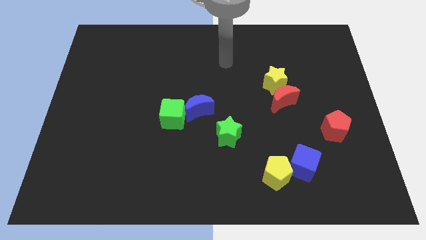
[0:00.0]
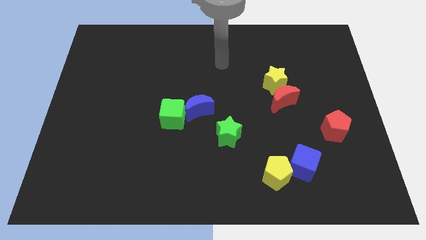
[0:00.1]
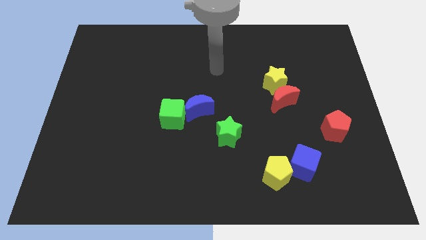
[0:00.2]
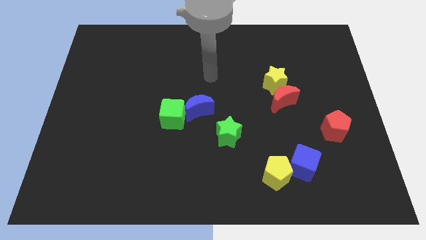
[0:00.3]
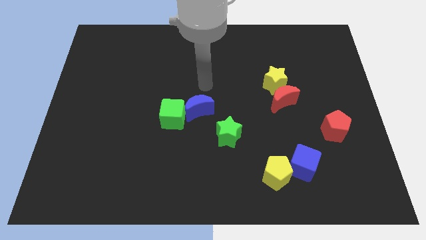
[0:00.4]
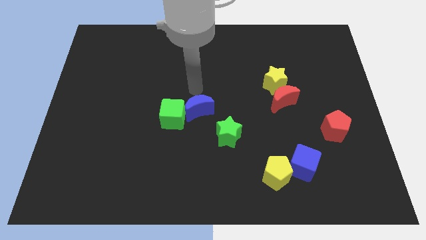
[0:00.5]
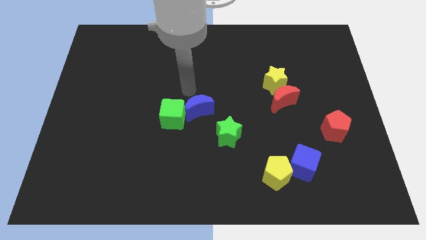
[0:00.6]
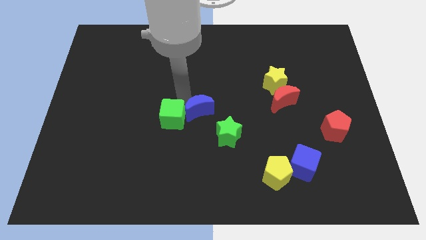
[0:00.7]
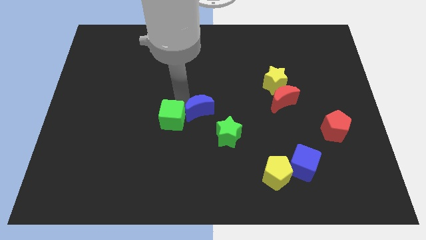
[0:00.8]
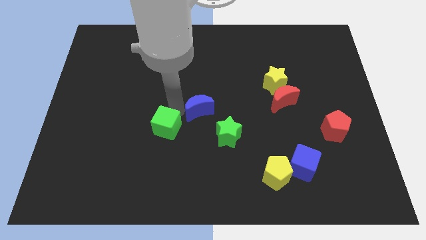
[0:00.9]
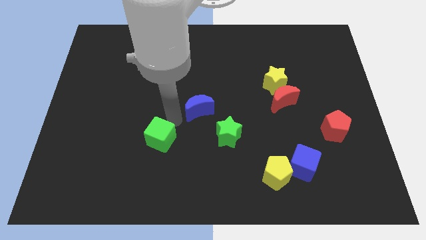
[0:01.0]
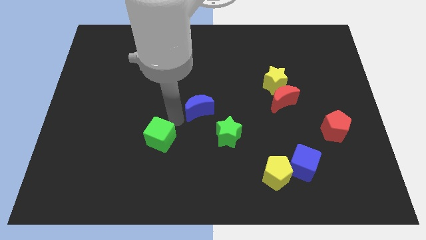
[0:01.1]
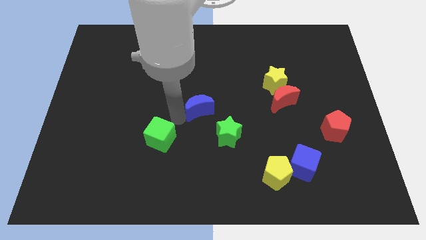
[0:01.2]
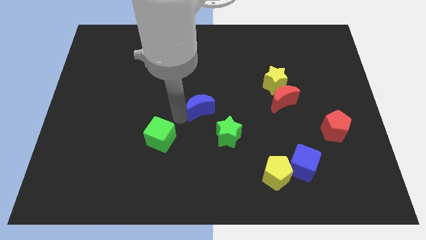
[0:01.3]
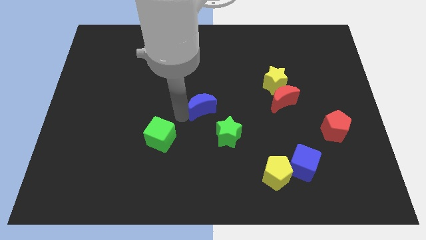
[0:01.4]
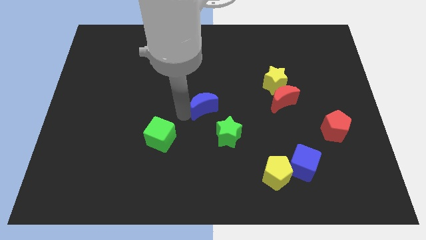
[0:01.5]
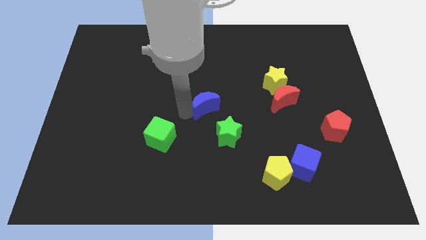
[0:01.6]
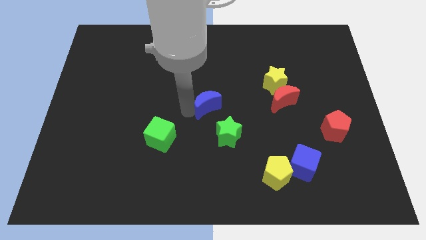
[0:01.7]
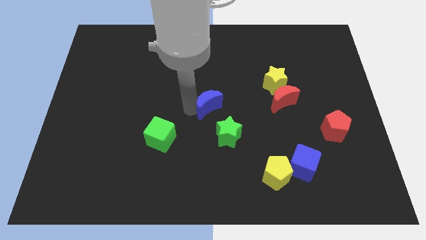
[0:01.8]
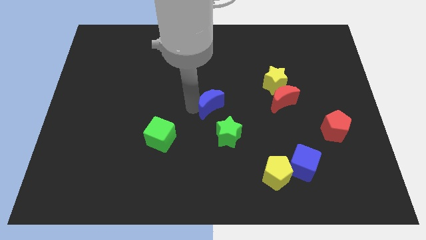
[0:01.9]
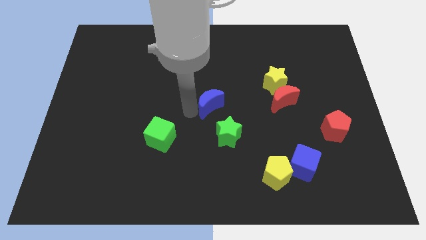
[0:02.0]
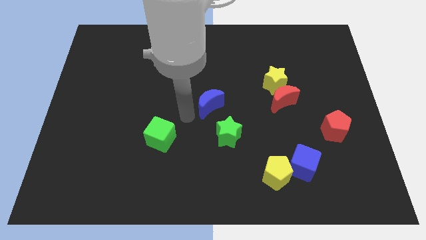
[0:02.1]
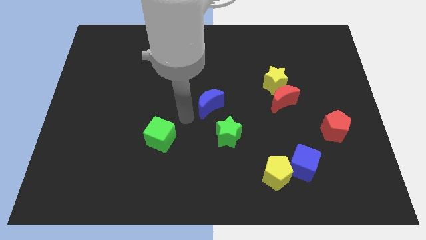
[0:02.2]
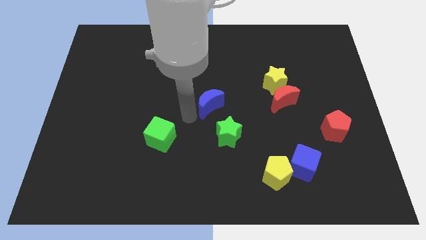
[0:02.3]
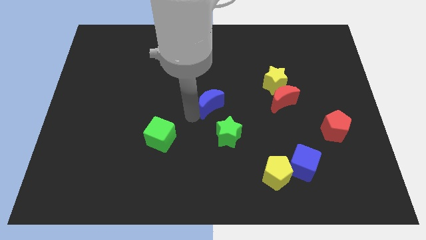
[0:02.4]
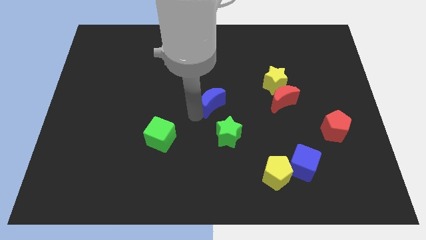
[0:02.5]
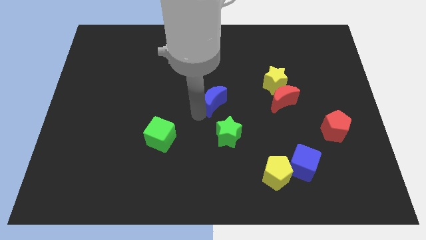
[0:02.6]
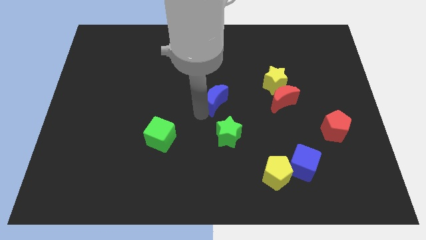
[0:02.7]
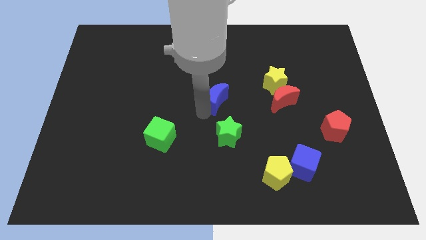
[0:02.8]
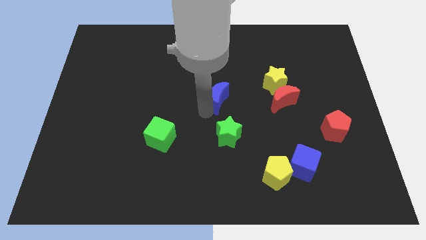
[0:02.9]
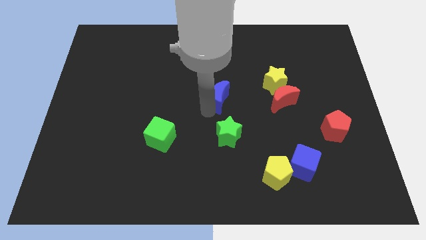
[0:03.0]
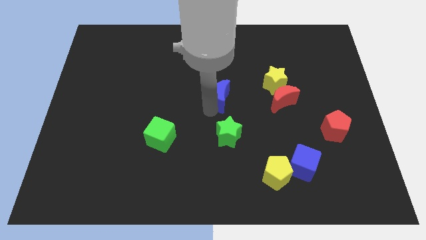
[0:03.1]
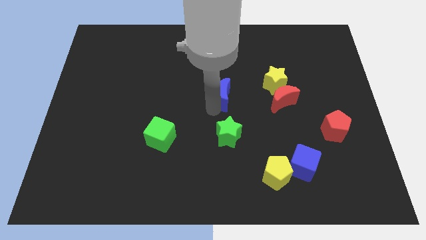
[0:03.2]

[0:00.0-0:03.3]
slightly move the blue moon upwards and to the right diagonally

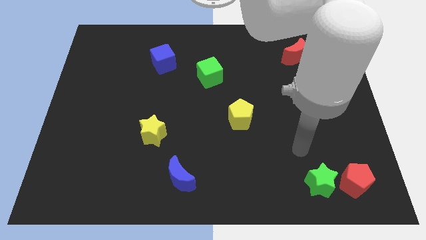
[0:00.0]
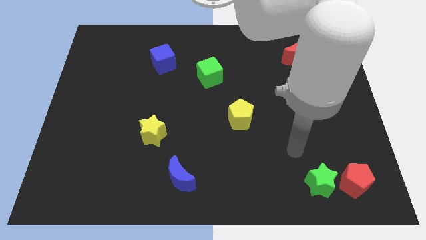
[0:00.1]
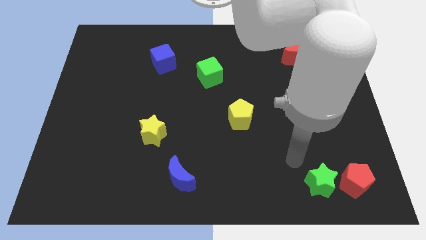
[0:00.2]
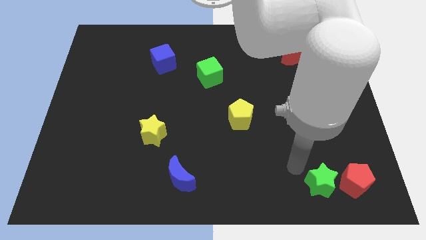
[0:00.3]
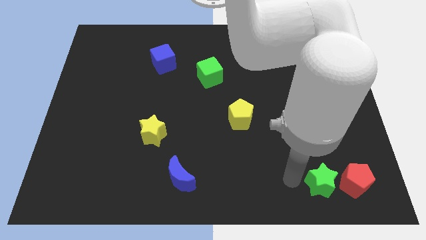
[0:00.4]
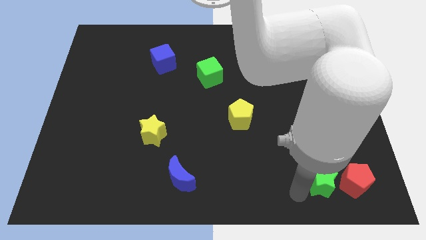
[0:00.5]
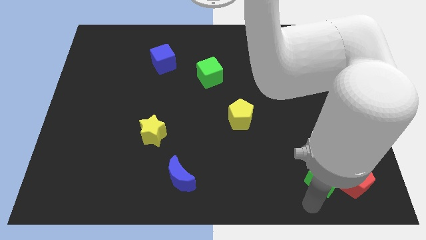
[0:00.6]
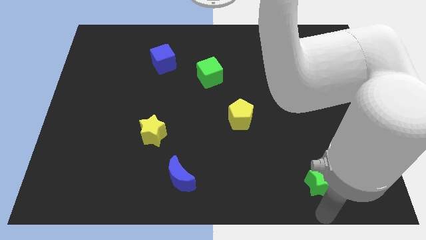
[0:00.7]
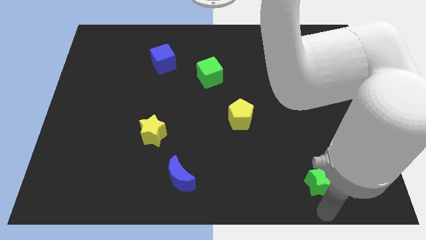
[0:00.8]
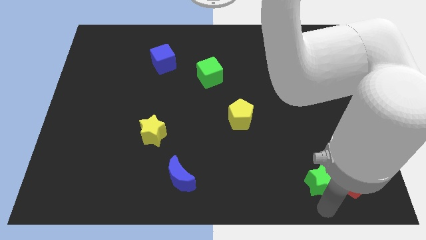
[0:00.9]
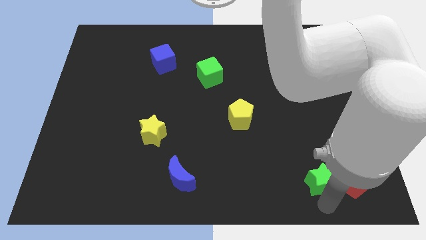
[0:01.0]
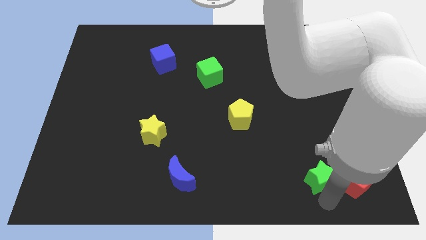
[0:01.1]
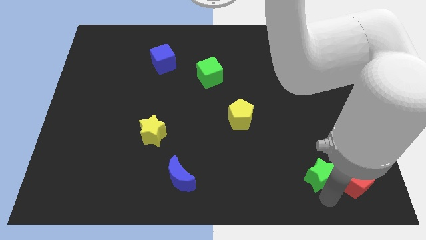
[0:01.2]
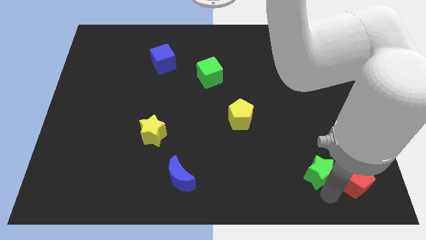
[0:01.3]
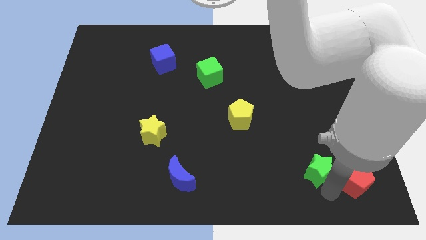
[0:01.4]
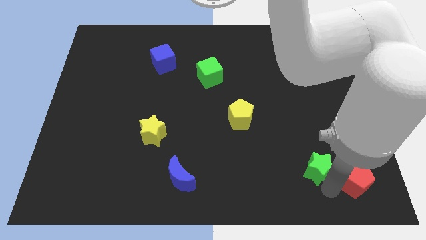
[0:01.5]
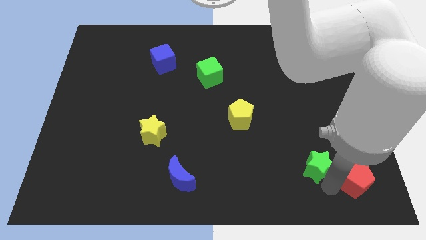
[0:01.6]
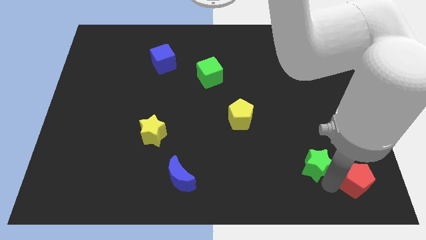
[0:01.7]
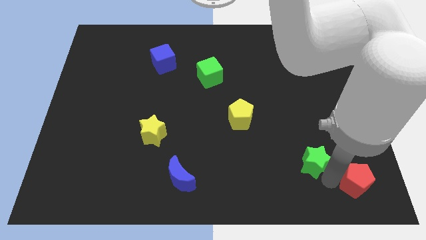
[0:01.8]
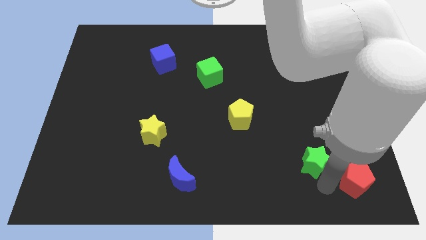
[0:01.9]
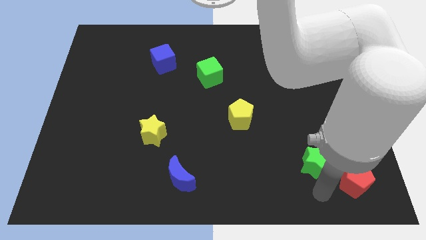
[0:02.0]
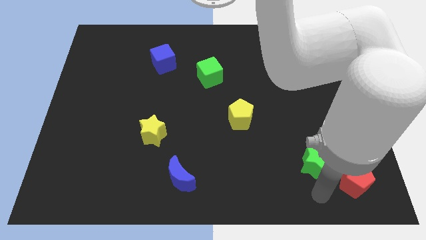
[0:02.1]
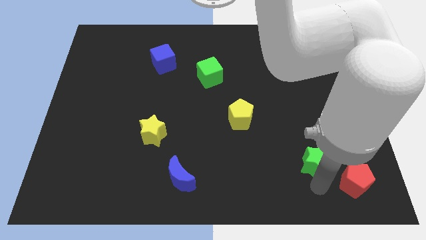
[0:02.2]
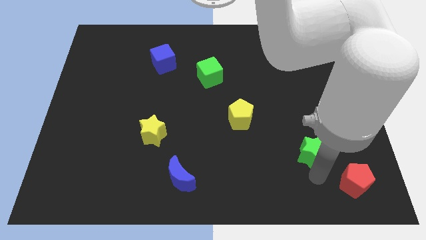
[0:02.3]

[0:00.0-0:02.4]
move the green star a little bit up

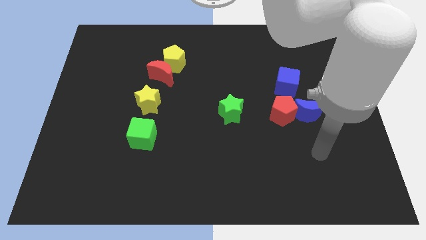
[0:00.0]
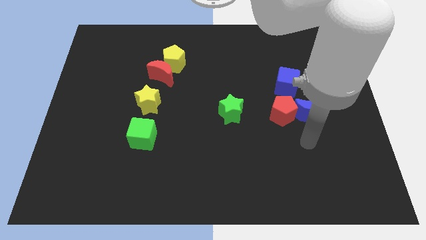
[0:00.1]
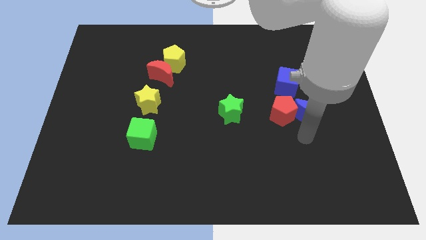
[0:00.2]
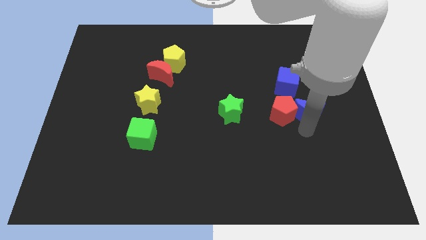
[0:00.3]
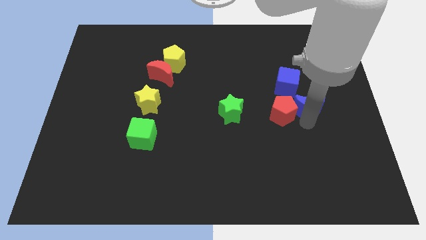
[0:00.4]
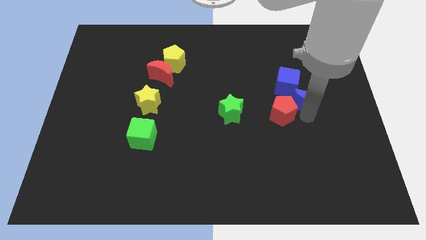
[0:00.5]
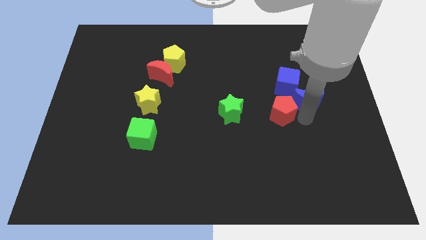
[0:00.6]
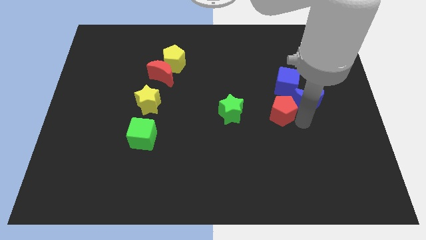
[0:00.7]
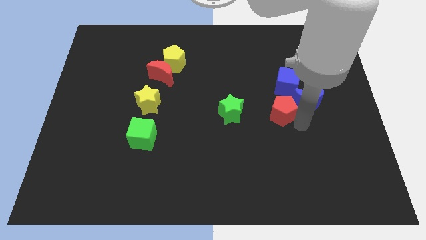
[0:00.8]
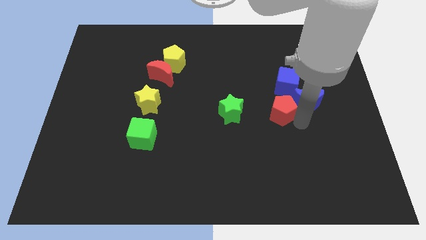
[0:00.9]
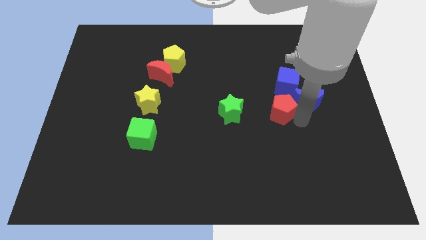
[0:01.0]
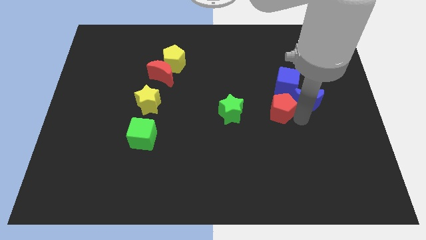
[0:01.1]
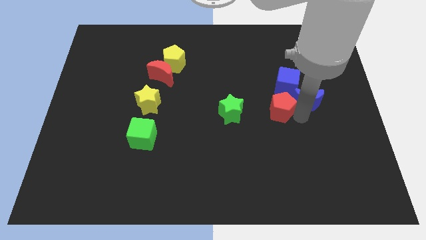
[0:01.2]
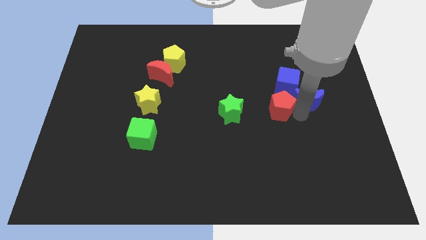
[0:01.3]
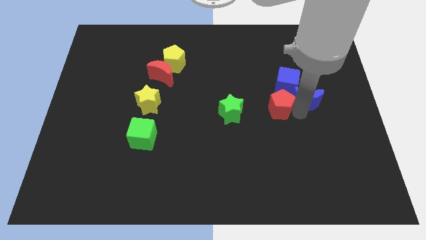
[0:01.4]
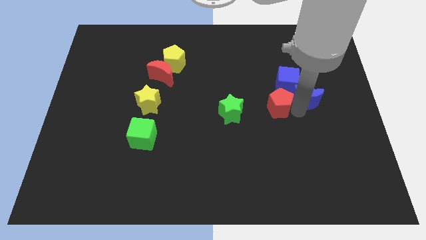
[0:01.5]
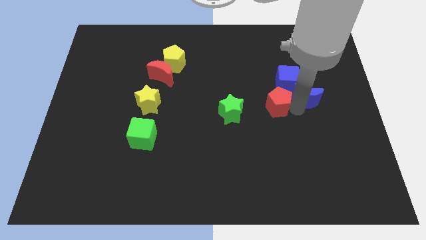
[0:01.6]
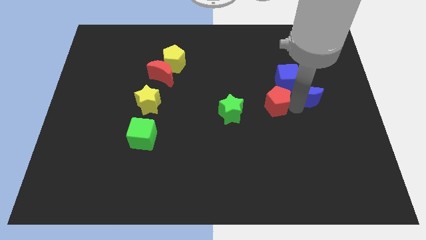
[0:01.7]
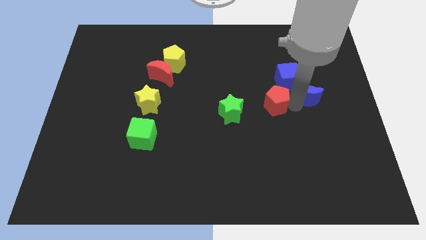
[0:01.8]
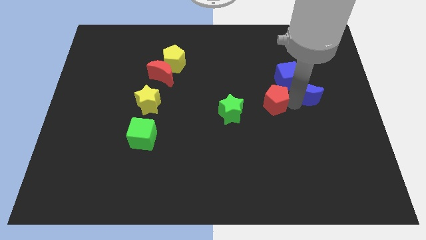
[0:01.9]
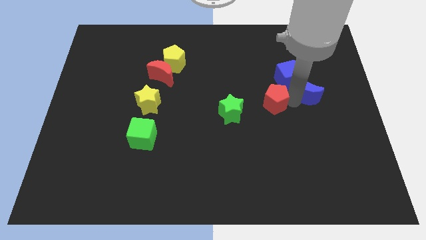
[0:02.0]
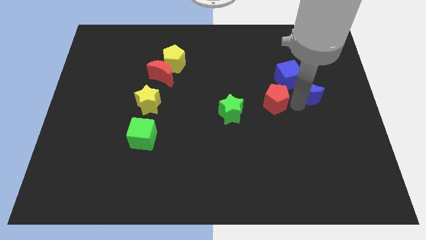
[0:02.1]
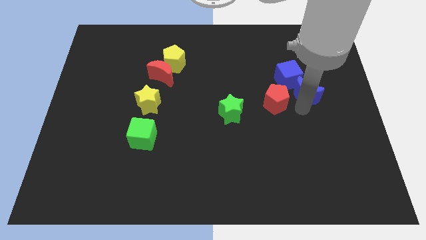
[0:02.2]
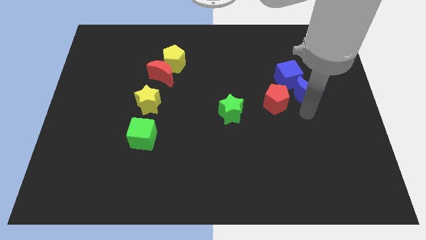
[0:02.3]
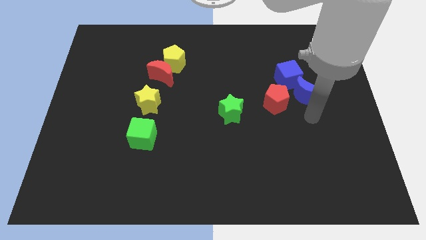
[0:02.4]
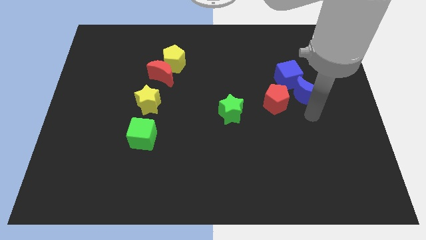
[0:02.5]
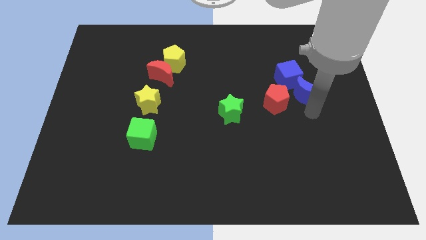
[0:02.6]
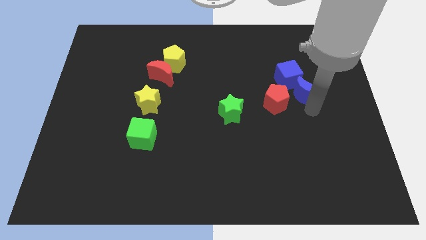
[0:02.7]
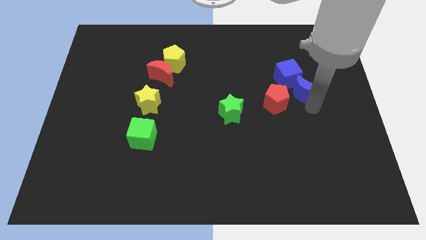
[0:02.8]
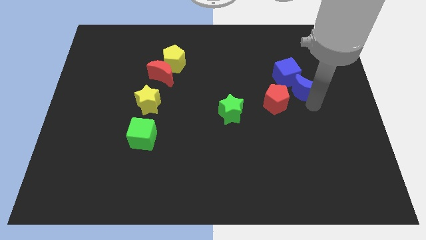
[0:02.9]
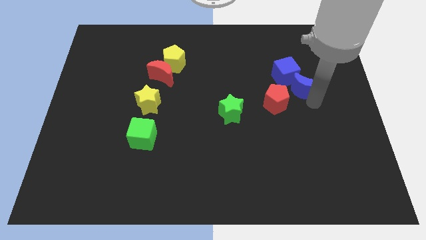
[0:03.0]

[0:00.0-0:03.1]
push the blue moon upwards a little
